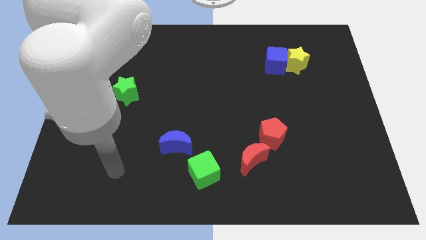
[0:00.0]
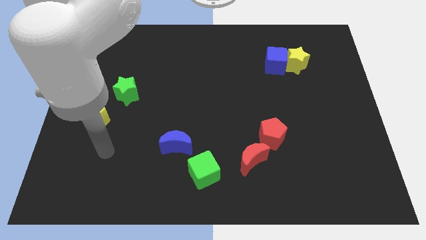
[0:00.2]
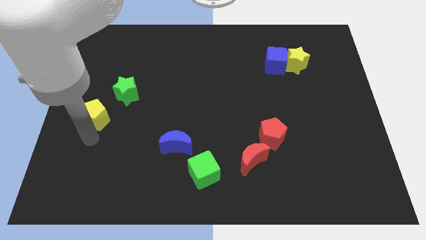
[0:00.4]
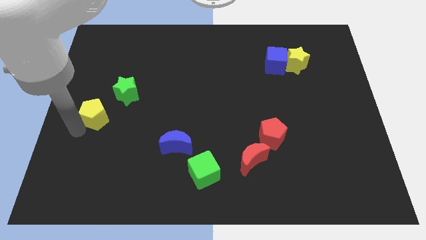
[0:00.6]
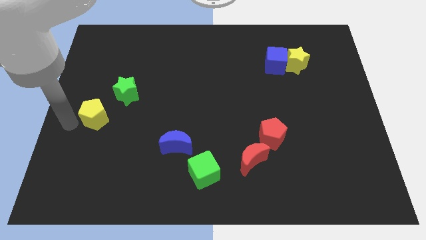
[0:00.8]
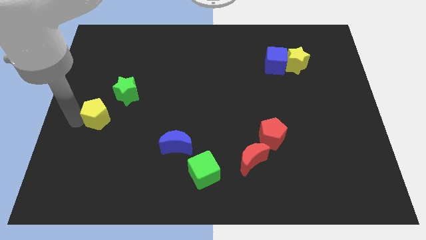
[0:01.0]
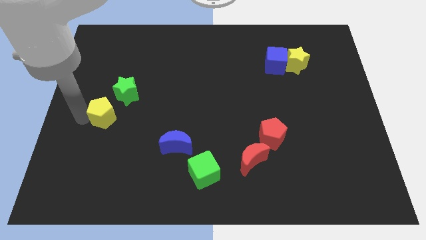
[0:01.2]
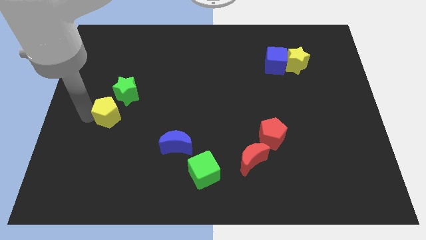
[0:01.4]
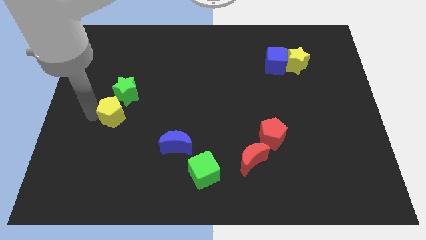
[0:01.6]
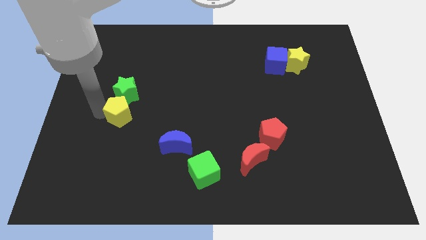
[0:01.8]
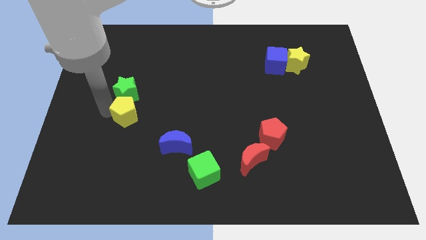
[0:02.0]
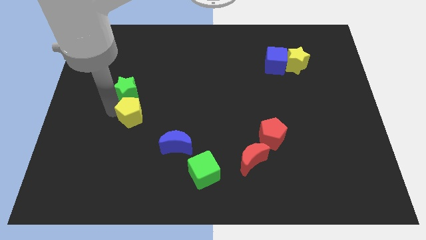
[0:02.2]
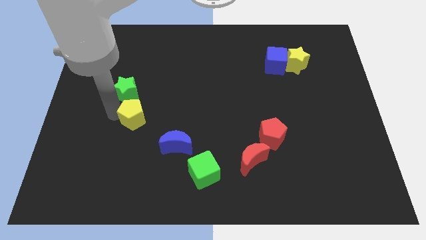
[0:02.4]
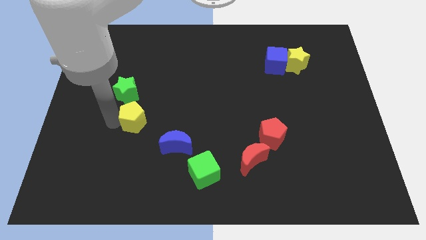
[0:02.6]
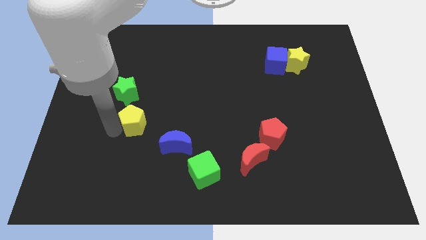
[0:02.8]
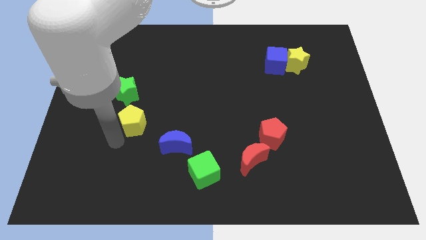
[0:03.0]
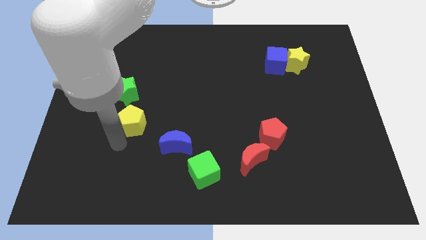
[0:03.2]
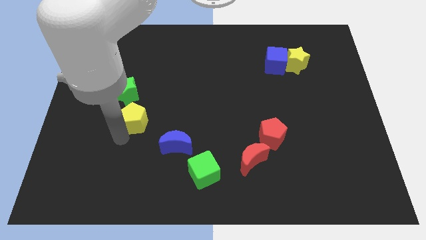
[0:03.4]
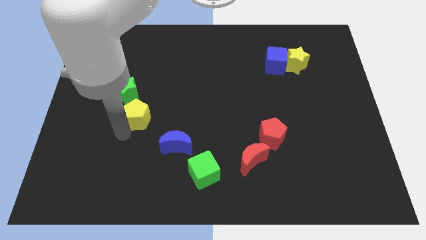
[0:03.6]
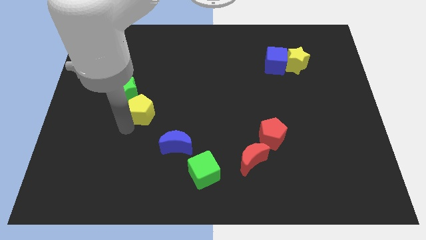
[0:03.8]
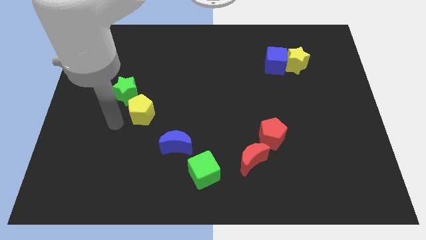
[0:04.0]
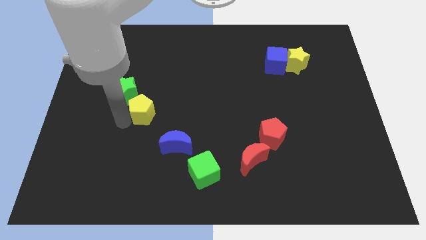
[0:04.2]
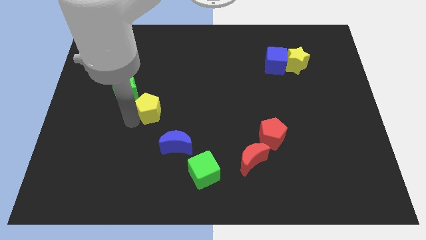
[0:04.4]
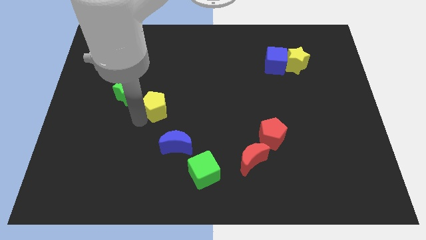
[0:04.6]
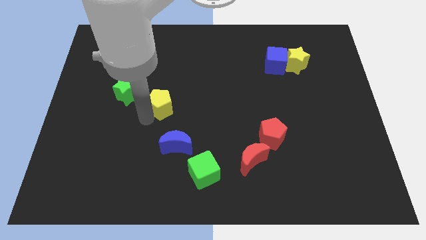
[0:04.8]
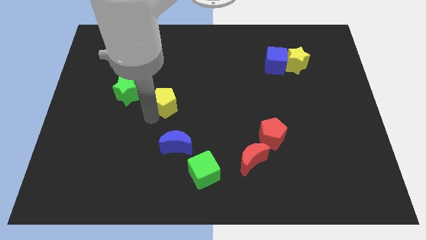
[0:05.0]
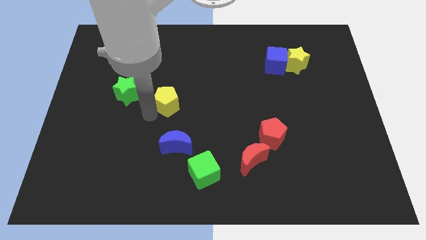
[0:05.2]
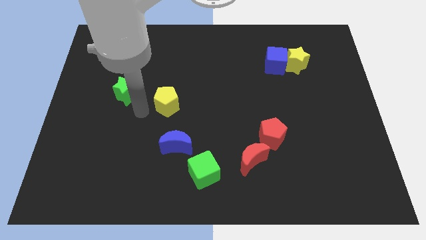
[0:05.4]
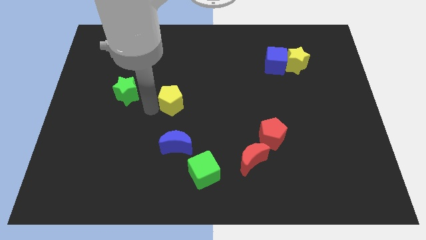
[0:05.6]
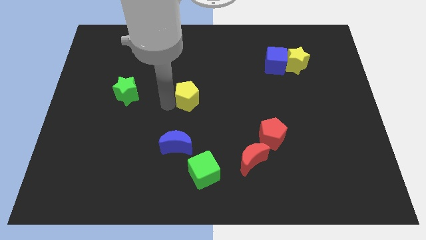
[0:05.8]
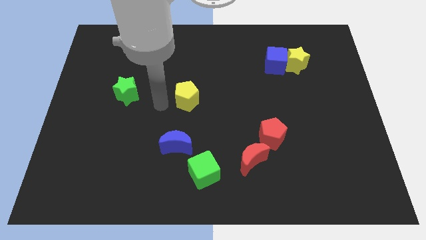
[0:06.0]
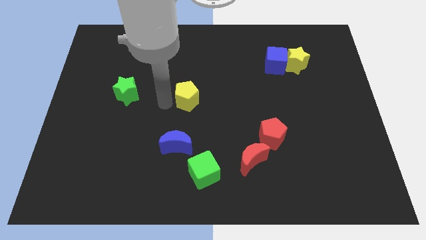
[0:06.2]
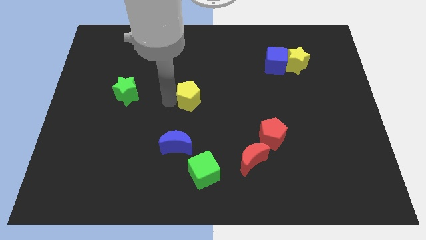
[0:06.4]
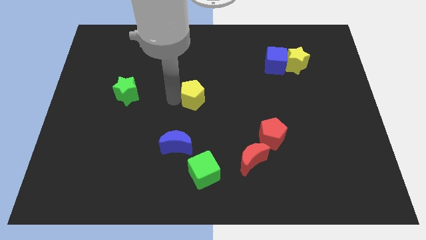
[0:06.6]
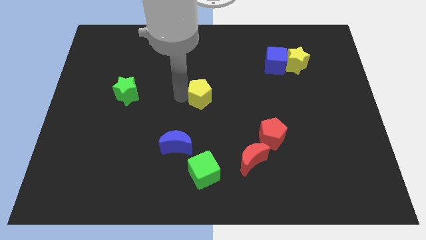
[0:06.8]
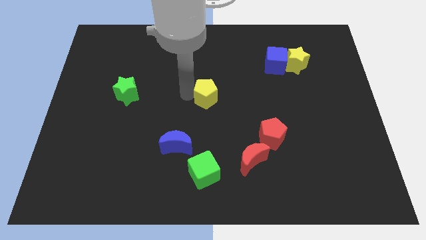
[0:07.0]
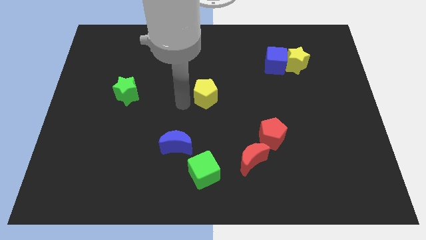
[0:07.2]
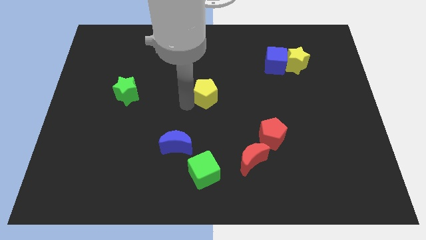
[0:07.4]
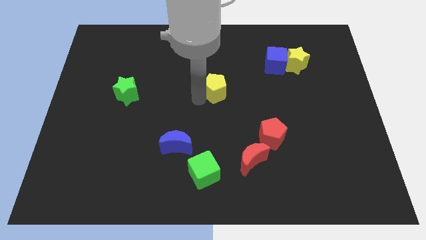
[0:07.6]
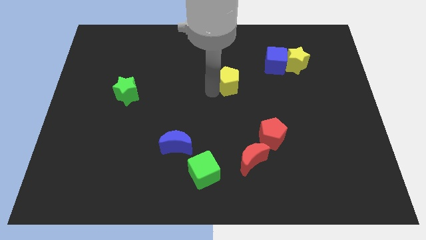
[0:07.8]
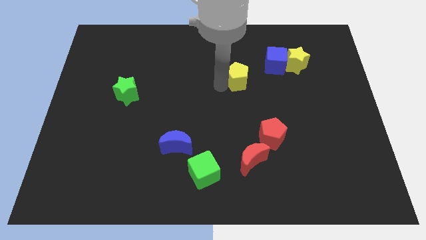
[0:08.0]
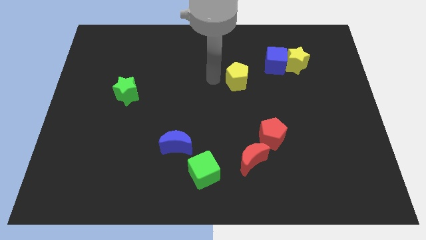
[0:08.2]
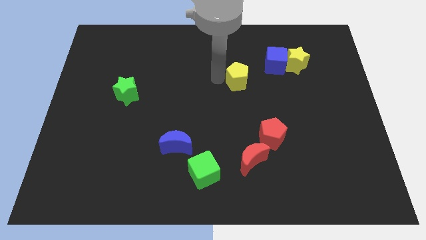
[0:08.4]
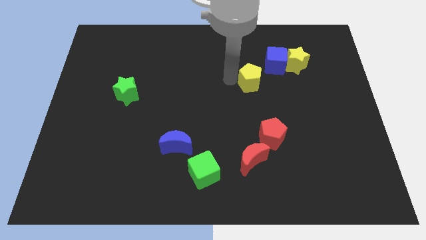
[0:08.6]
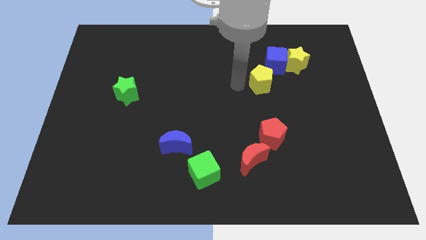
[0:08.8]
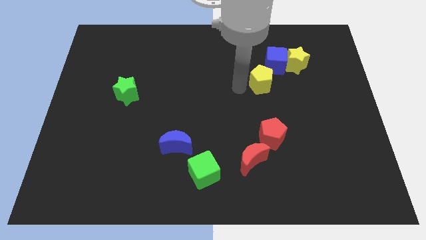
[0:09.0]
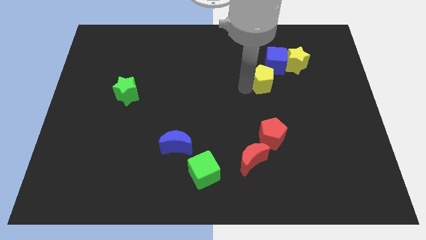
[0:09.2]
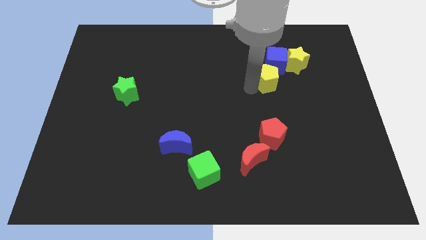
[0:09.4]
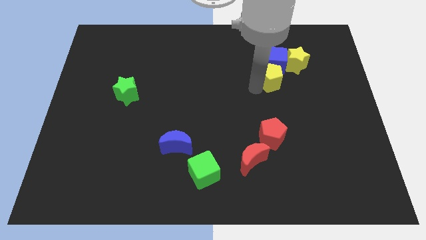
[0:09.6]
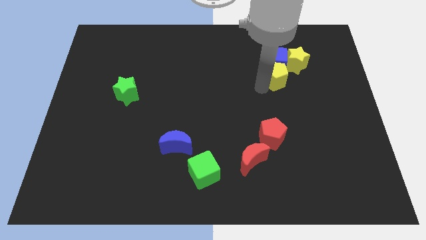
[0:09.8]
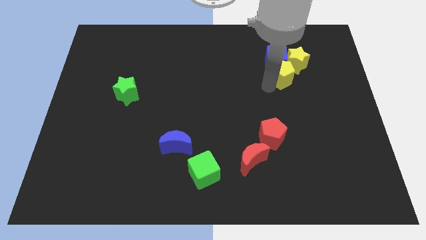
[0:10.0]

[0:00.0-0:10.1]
slide the yellow pentagon close to the yellow star

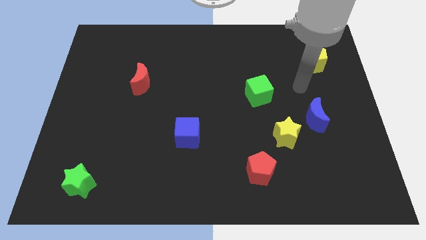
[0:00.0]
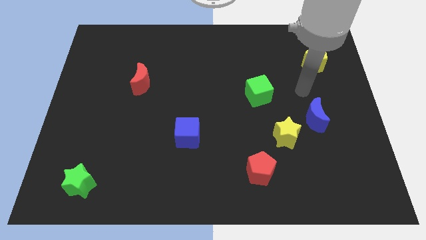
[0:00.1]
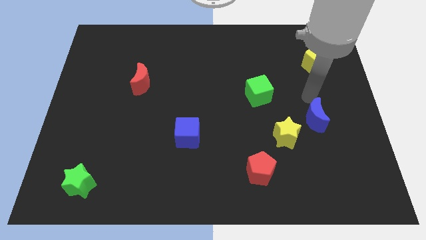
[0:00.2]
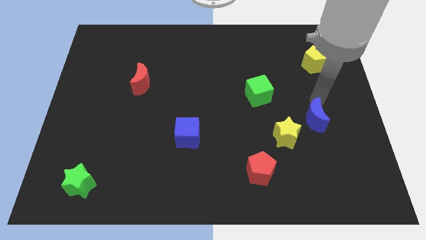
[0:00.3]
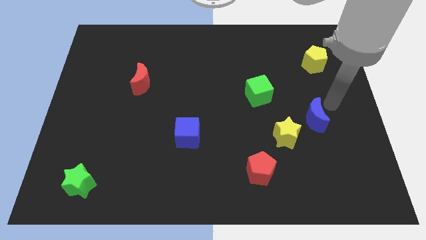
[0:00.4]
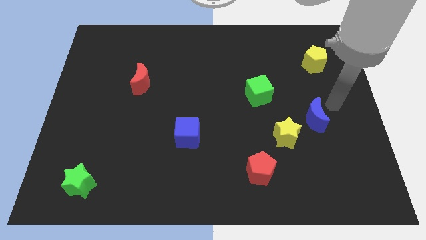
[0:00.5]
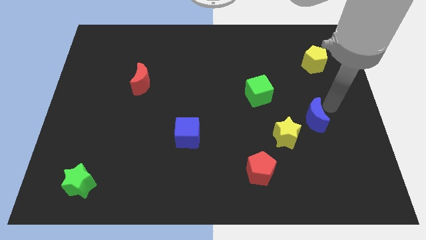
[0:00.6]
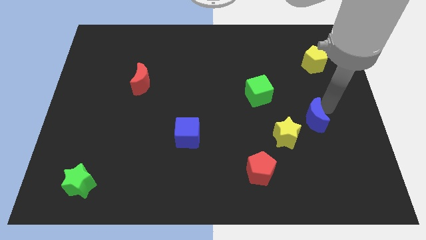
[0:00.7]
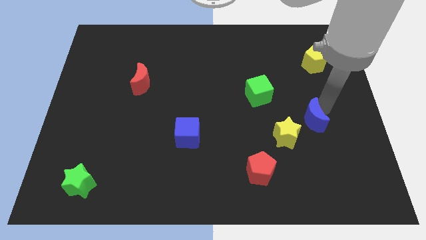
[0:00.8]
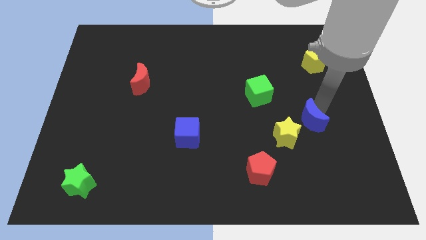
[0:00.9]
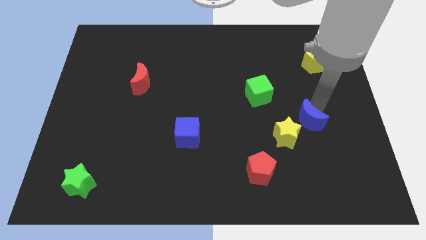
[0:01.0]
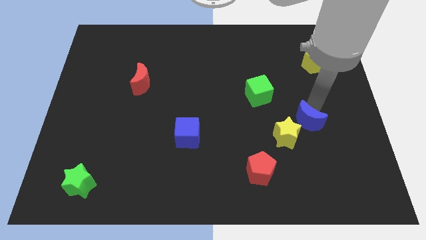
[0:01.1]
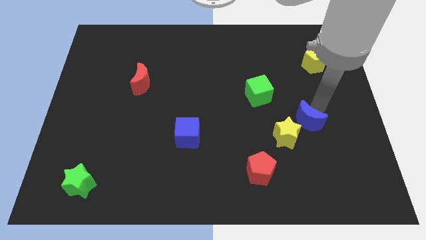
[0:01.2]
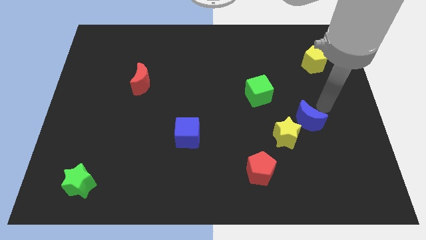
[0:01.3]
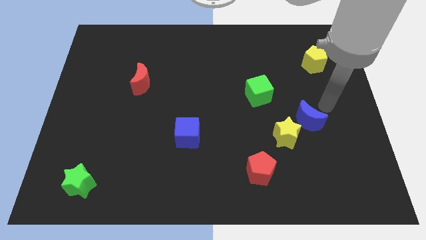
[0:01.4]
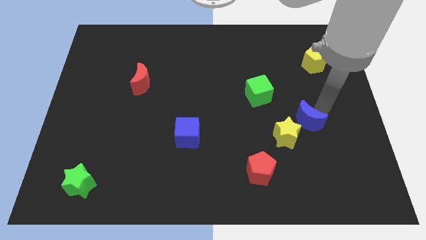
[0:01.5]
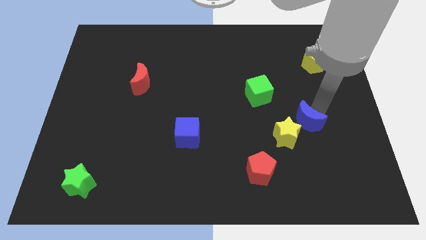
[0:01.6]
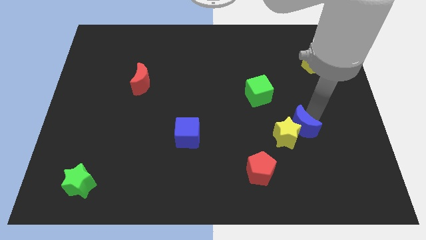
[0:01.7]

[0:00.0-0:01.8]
slide the blue moon next to the yellow star
